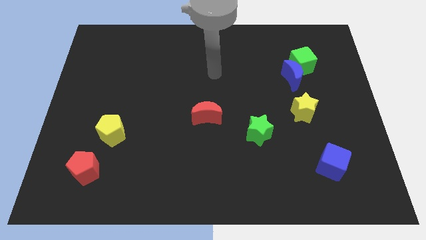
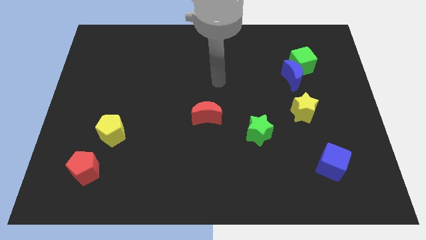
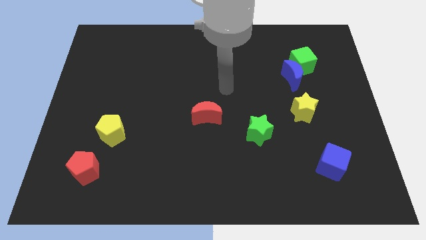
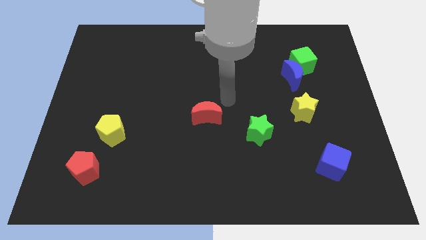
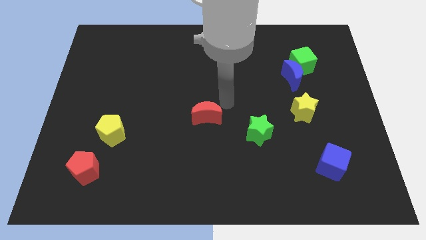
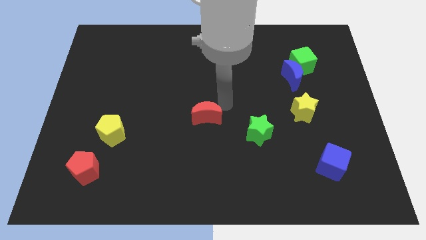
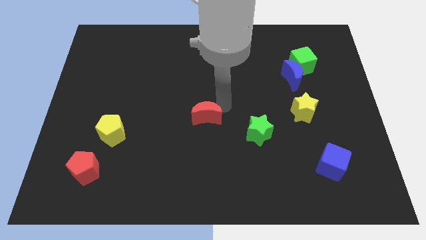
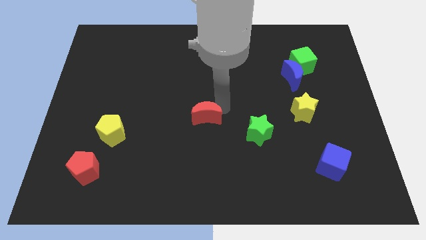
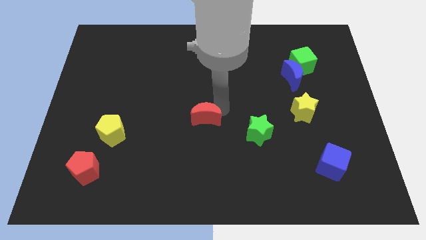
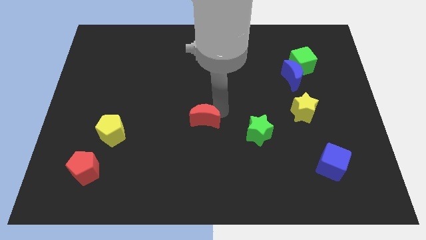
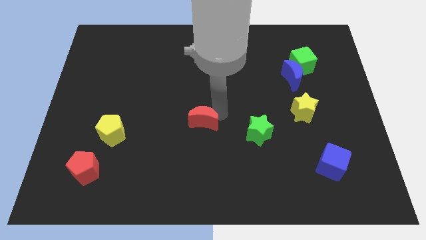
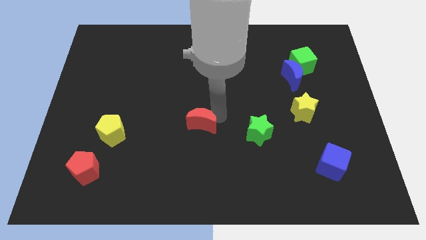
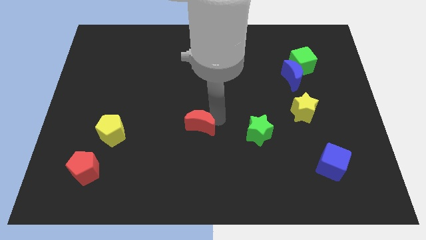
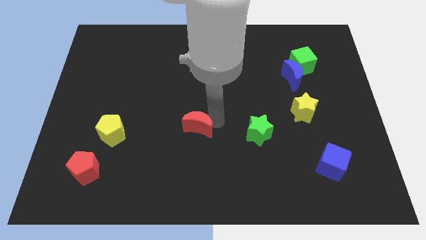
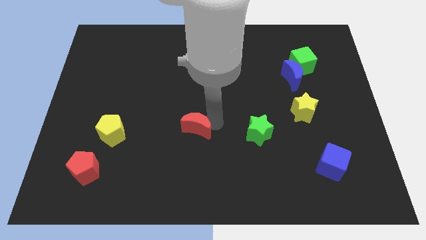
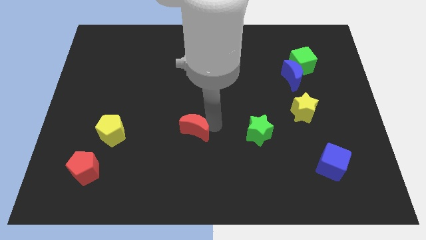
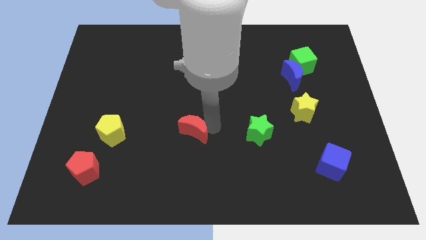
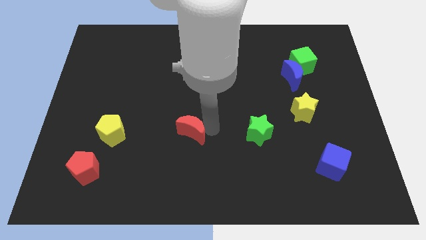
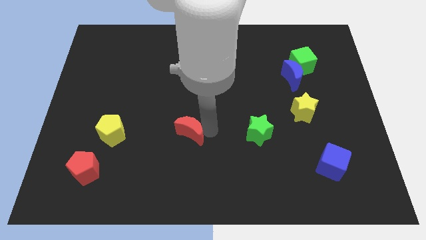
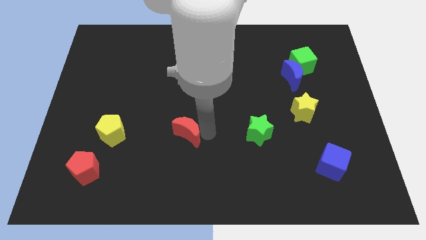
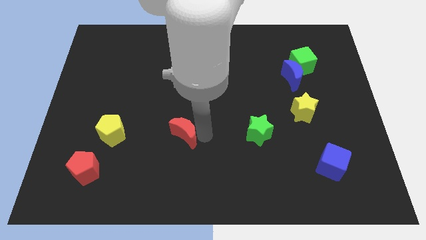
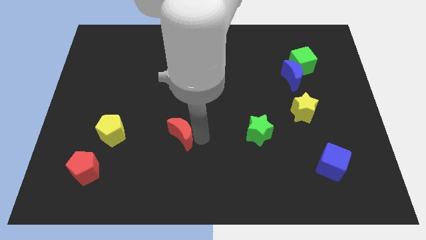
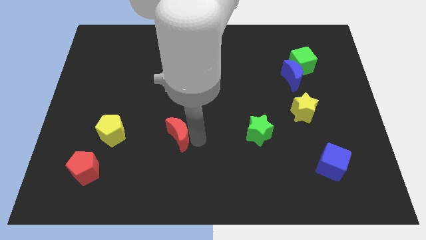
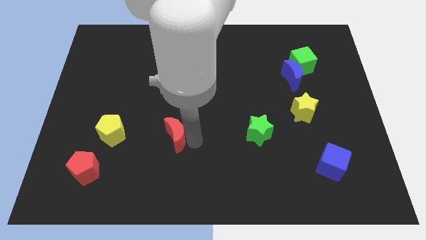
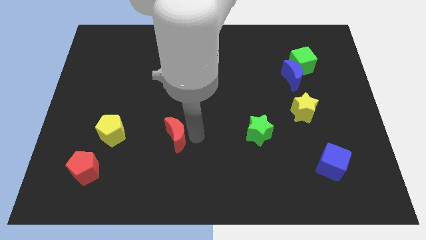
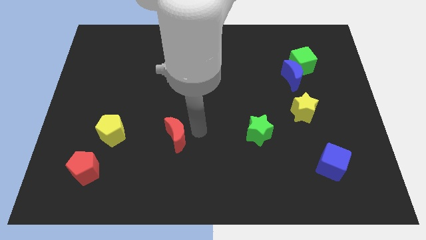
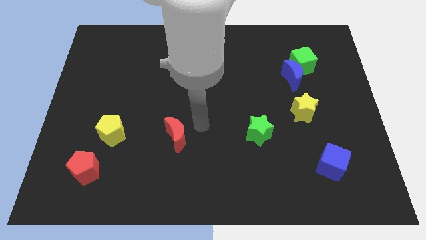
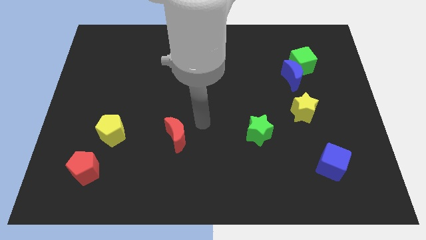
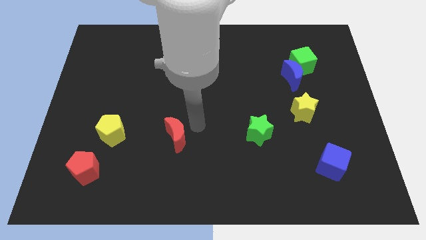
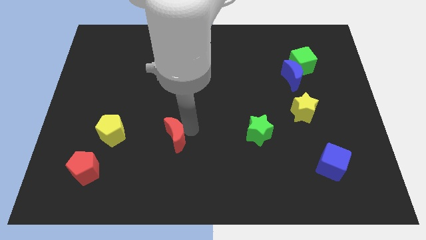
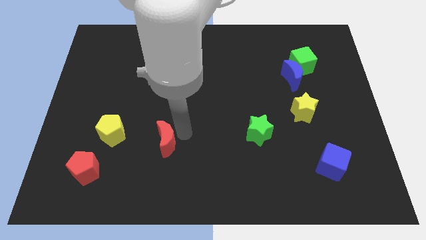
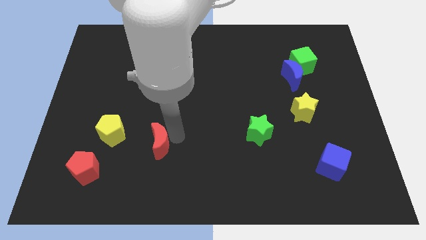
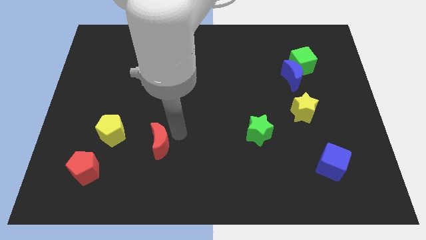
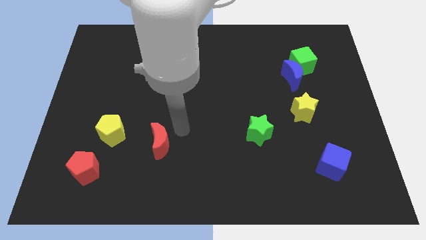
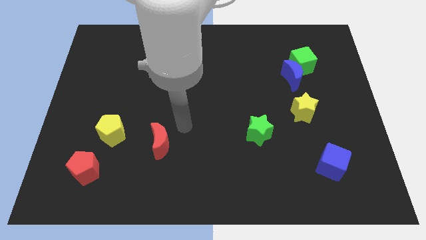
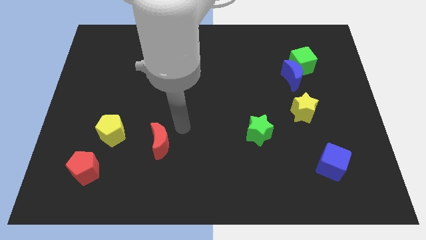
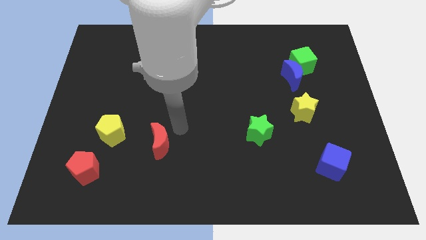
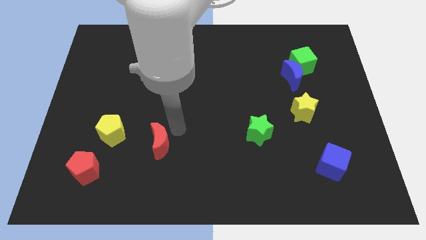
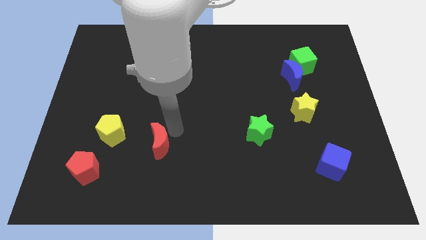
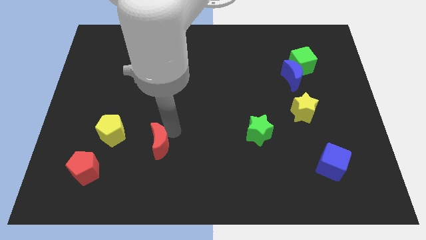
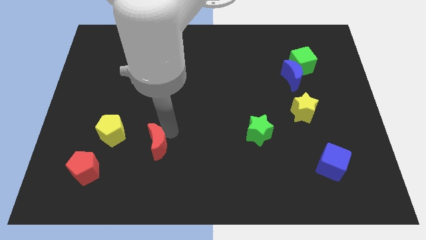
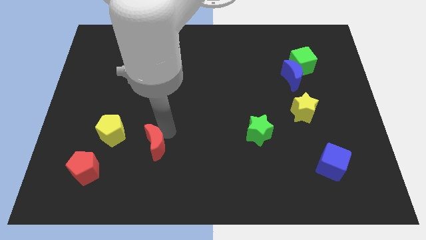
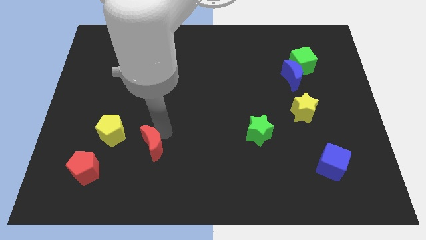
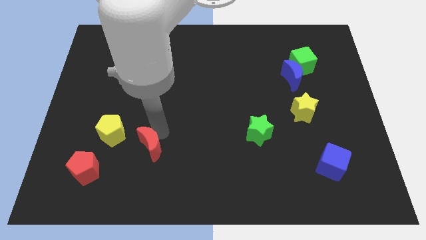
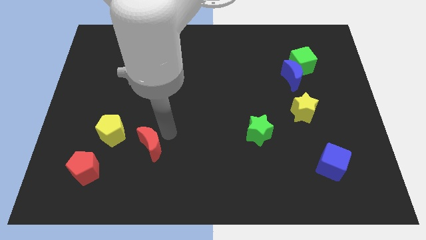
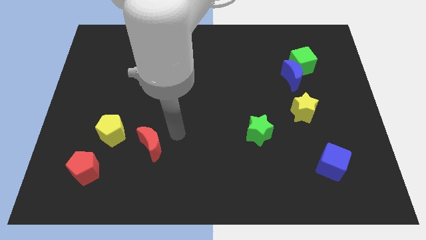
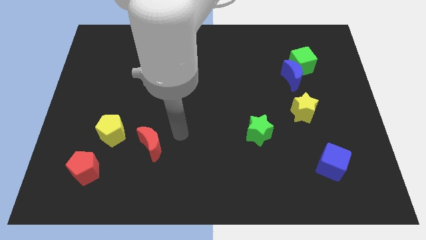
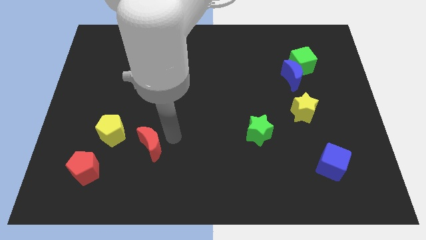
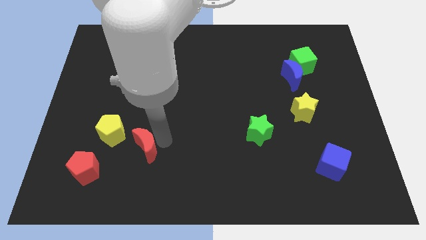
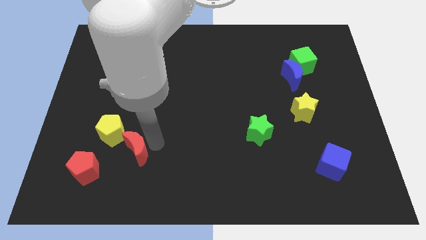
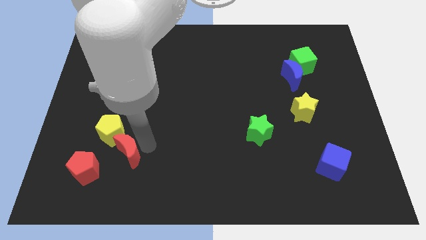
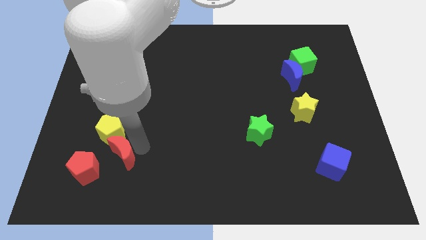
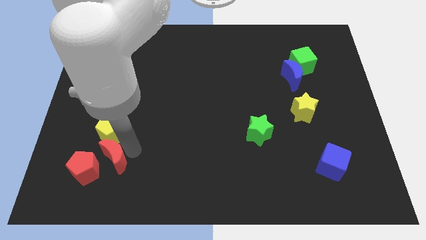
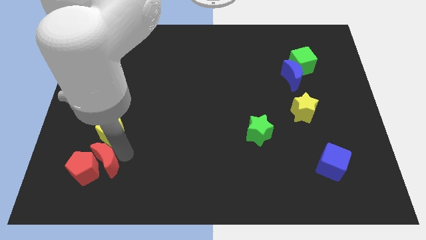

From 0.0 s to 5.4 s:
put the red moon next to the red pentagon
